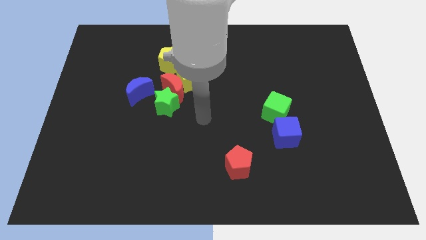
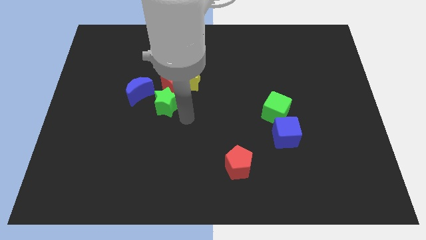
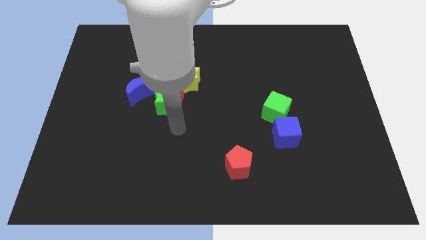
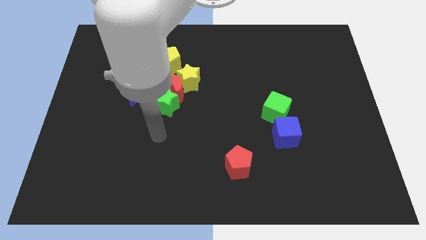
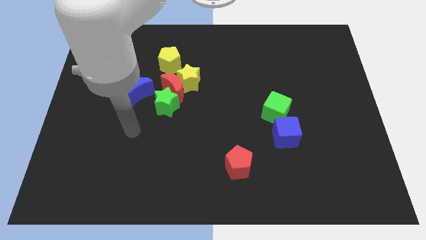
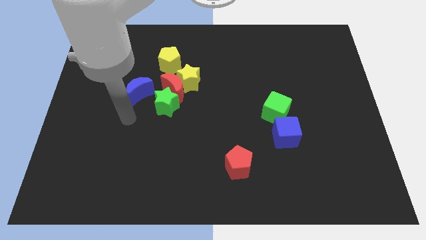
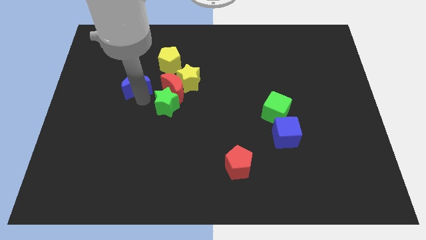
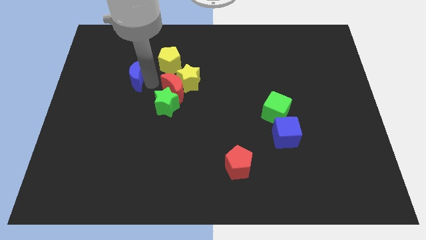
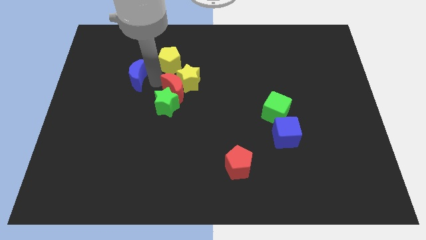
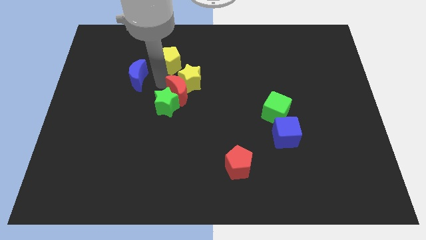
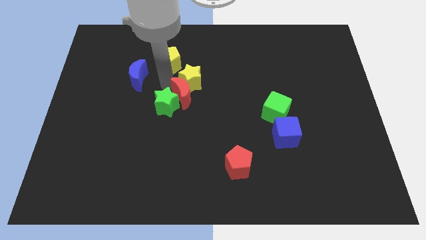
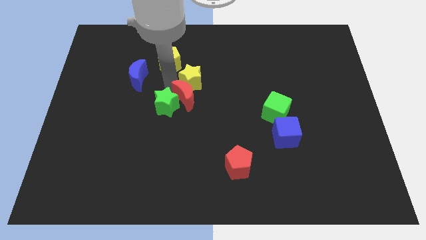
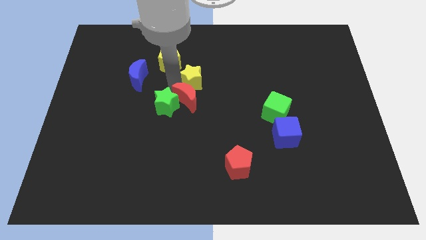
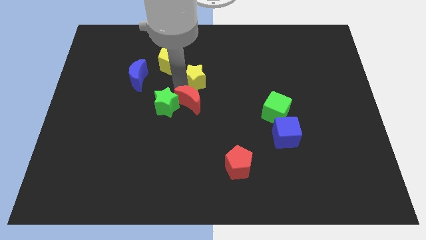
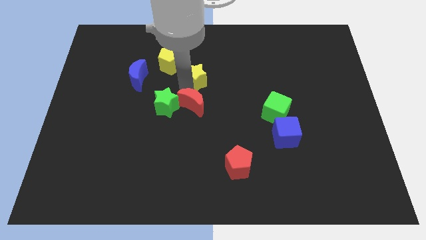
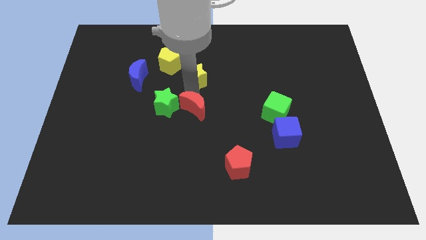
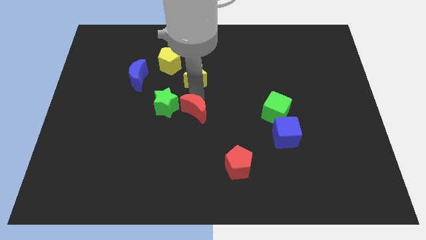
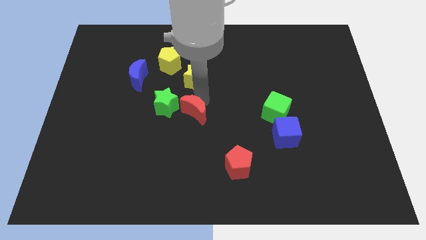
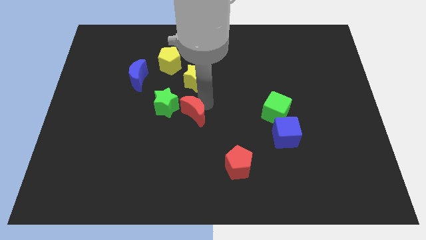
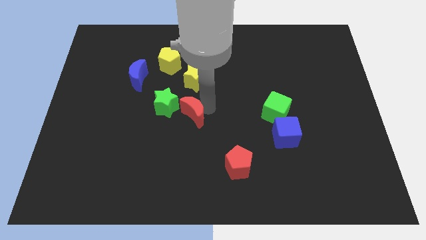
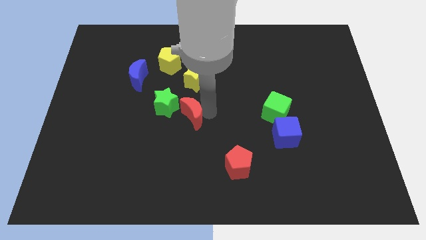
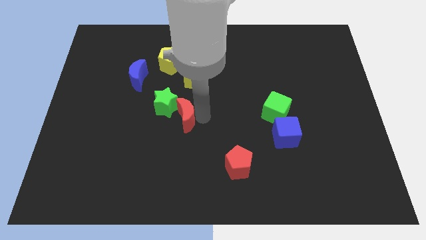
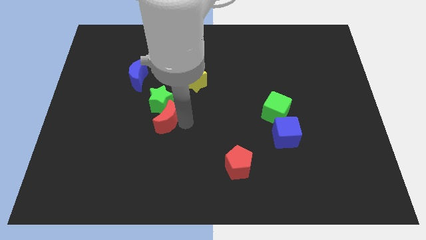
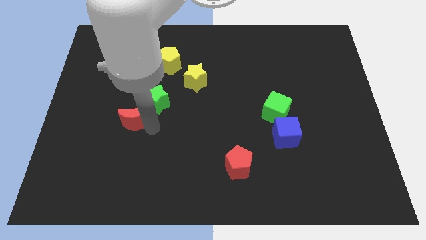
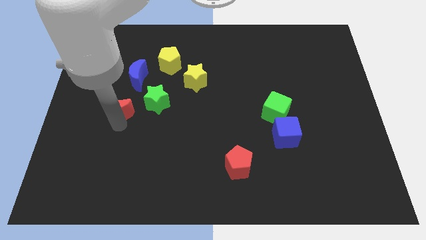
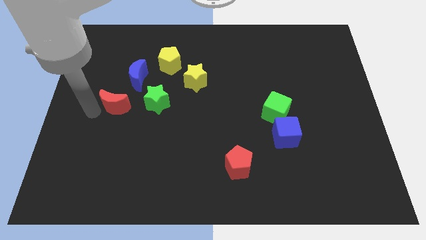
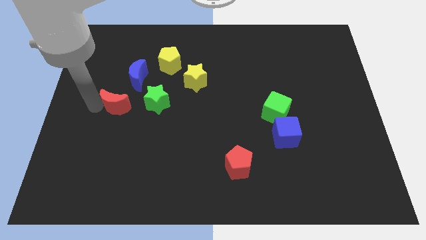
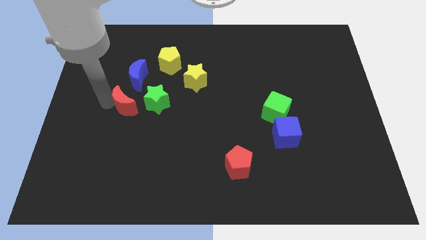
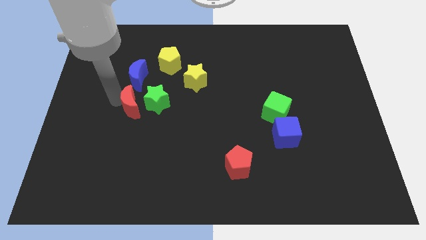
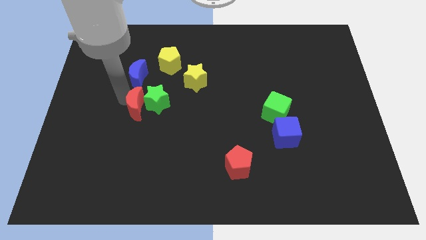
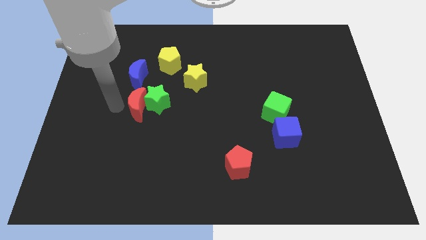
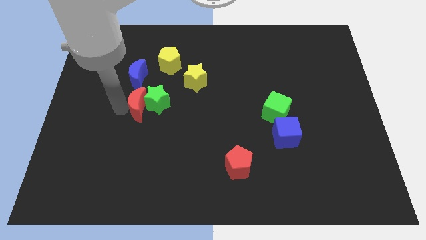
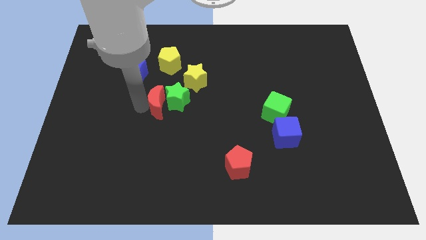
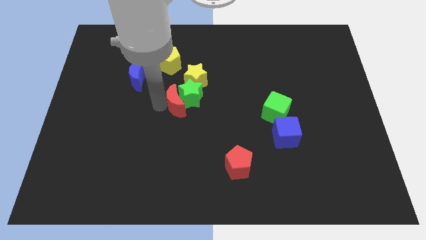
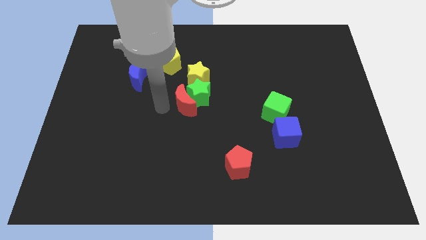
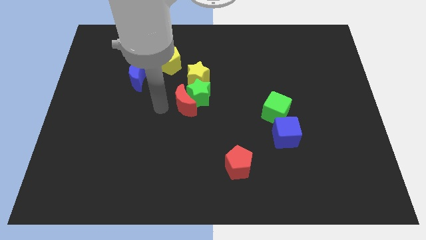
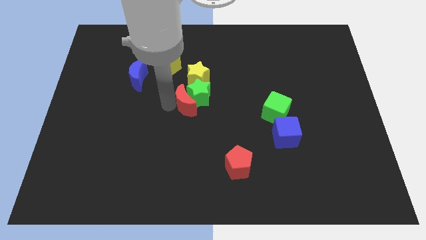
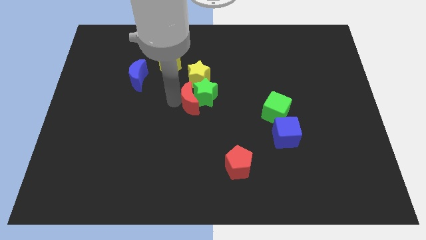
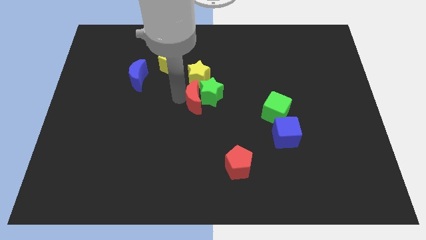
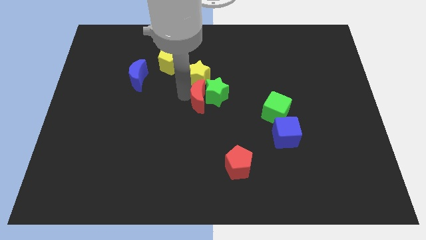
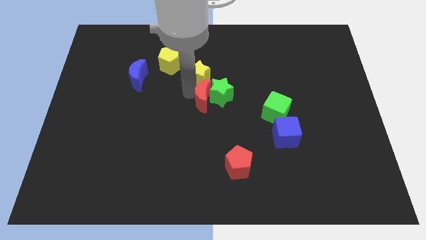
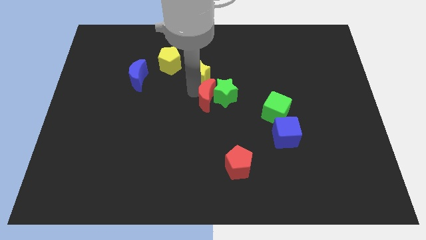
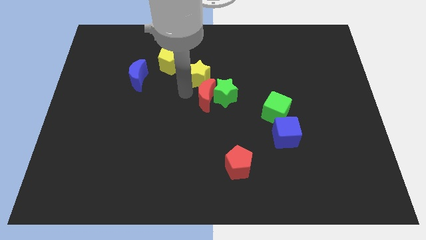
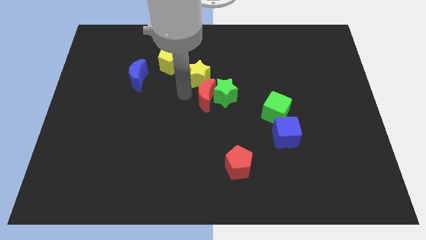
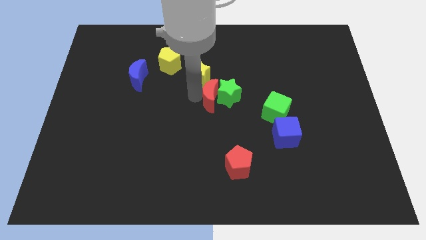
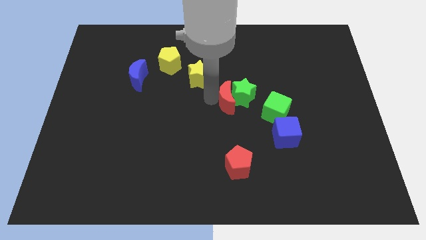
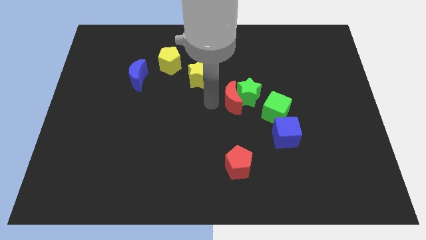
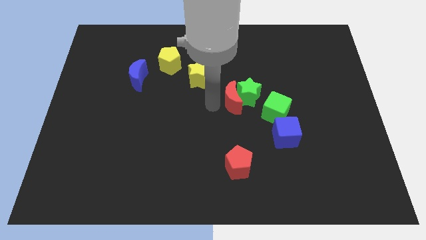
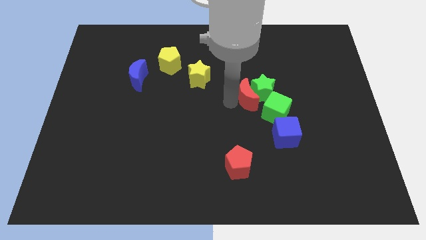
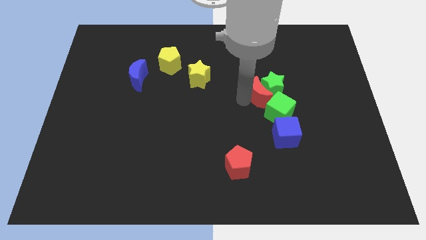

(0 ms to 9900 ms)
move the red moon right

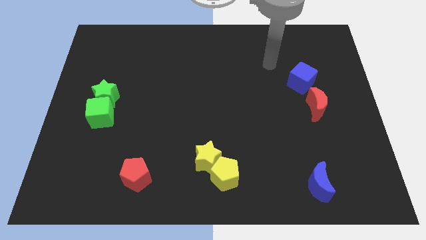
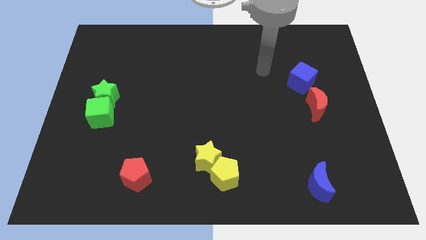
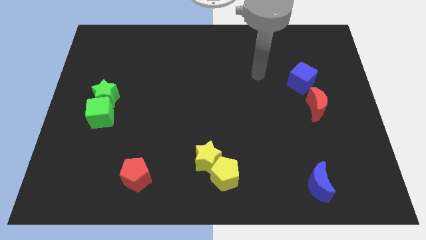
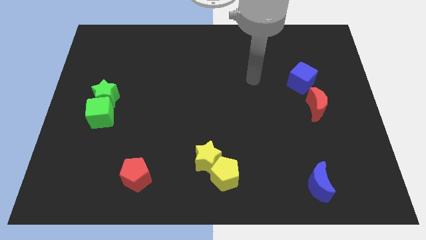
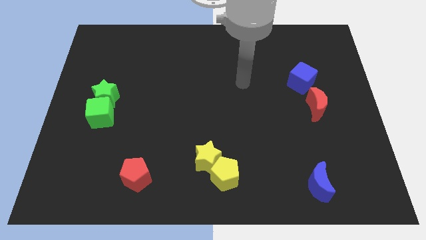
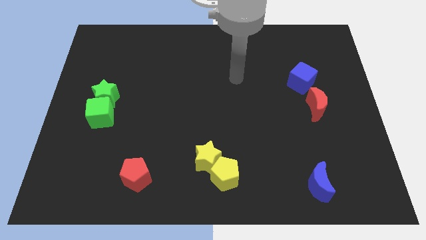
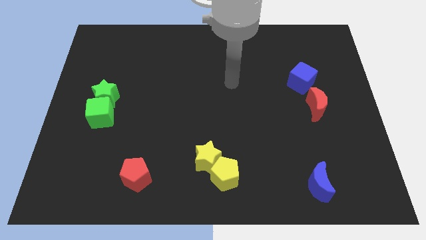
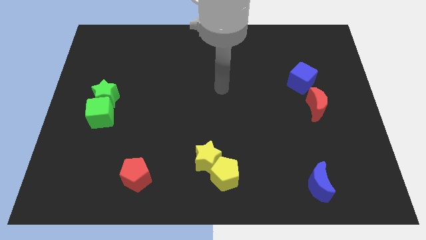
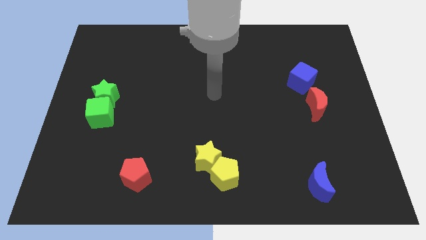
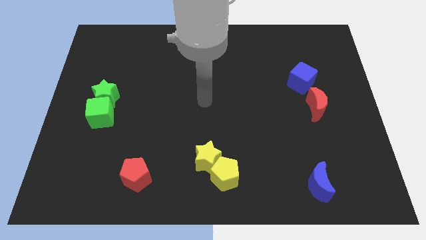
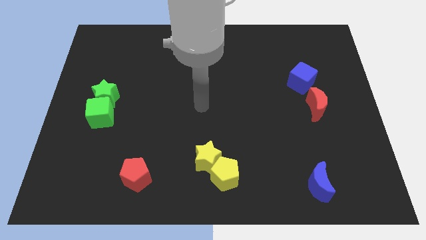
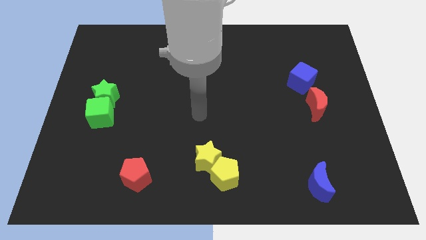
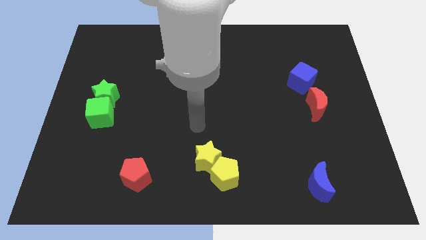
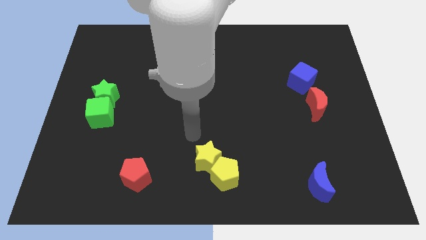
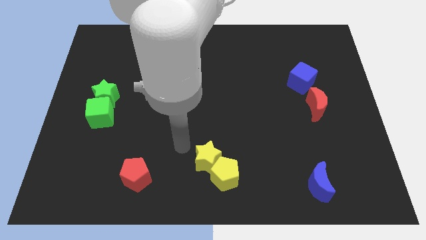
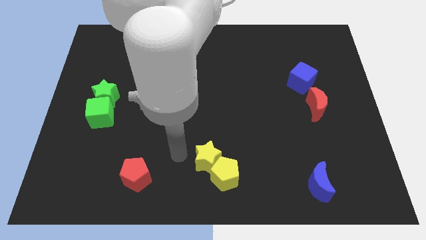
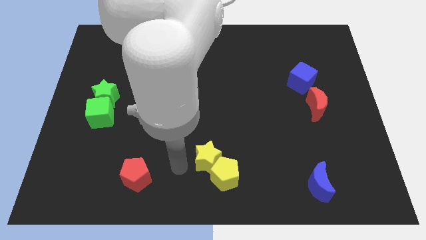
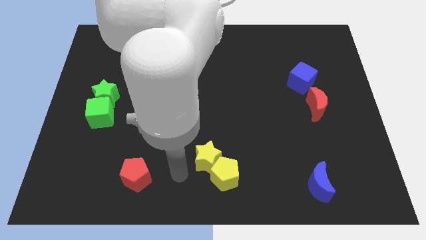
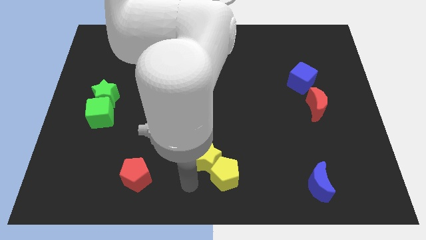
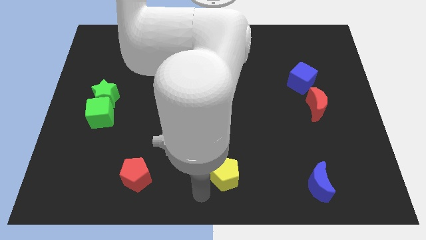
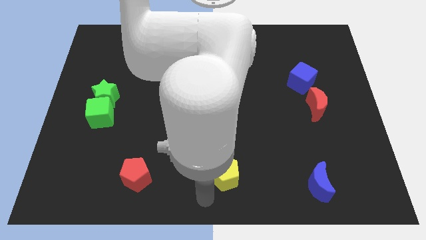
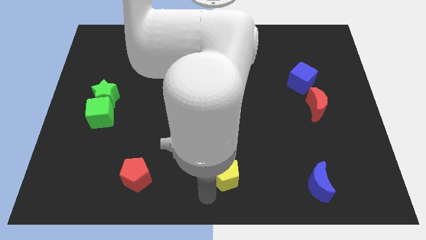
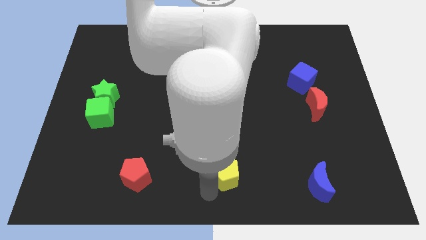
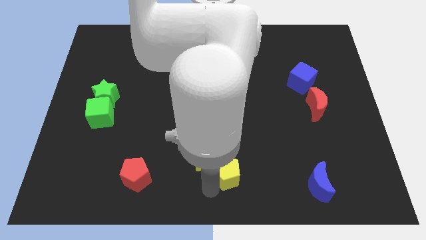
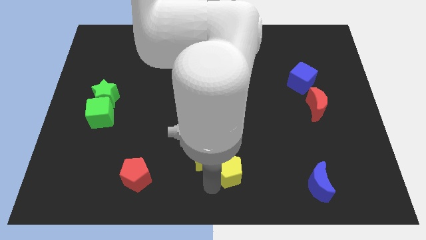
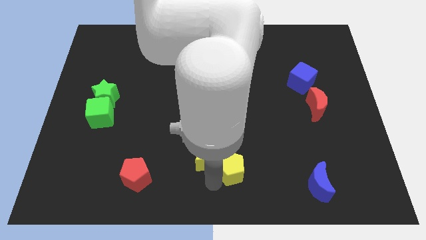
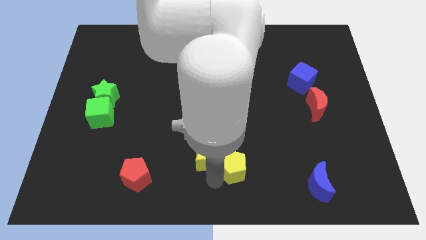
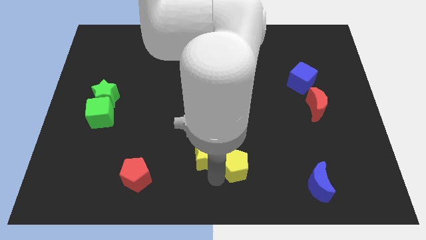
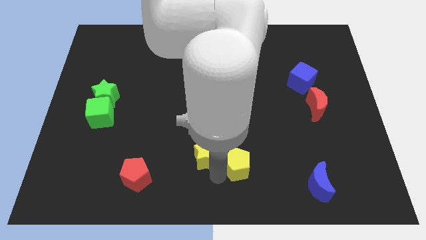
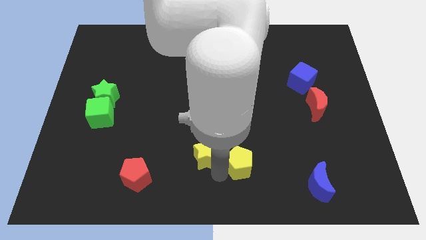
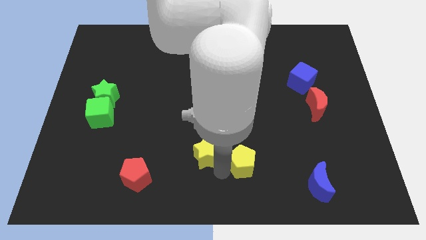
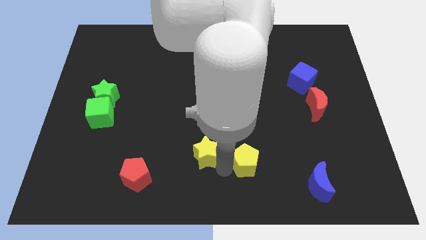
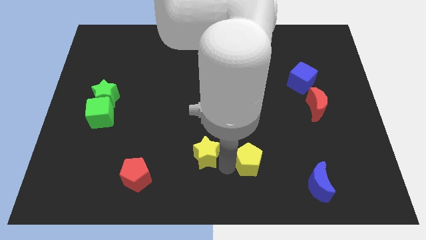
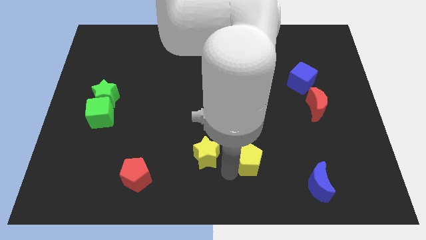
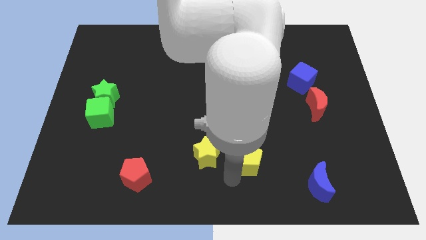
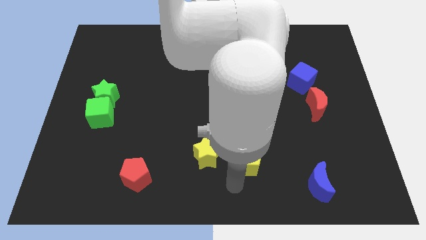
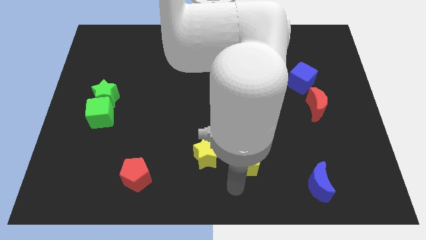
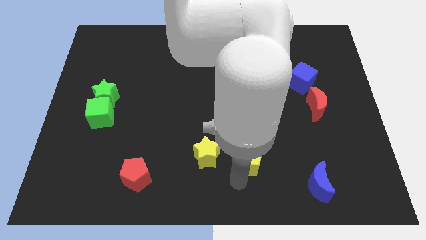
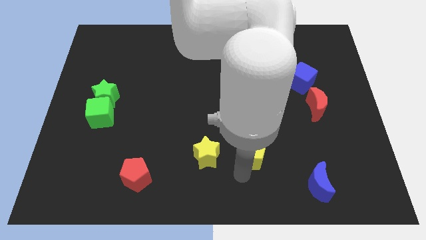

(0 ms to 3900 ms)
push the yellow pentagon diagonally upwards and right slightly
